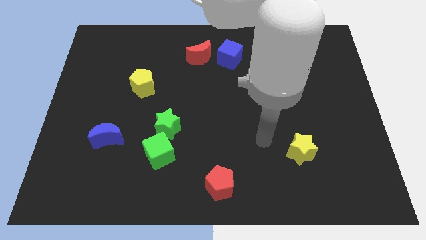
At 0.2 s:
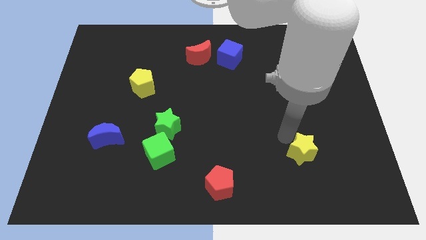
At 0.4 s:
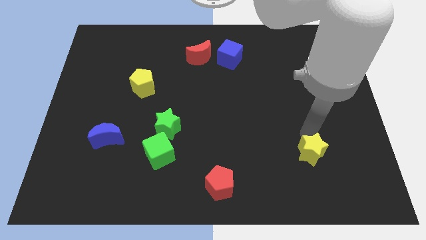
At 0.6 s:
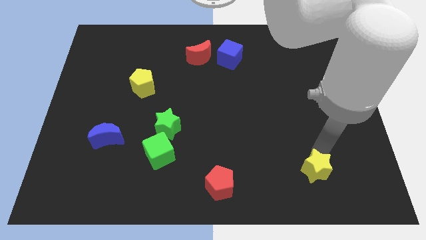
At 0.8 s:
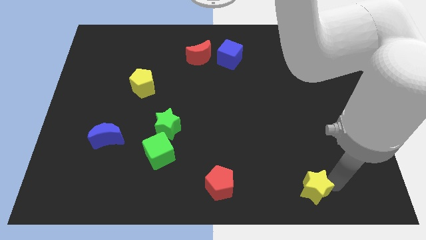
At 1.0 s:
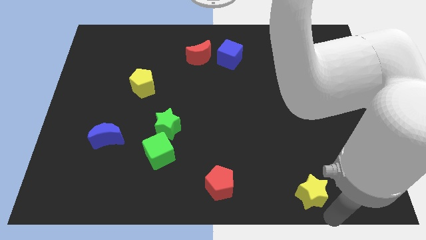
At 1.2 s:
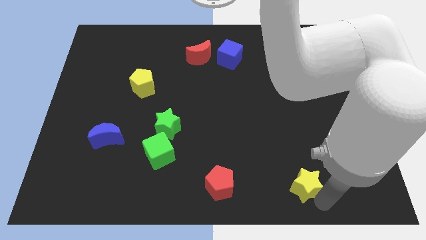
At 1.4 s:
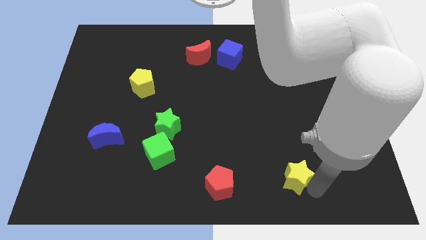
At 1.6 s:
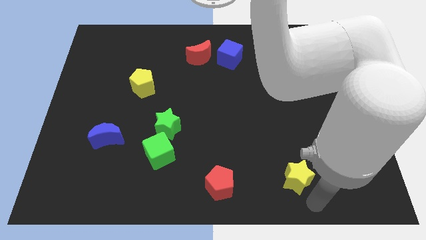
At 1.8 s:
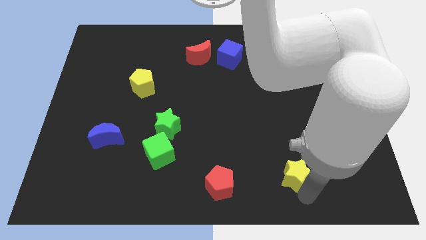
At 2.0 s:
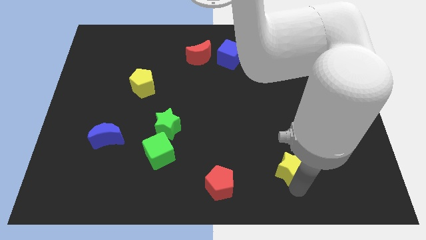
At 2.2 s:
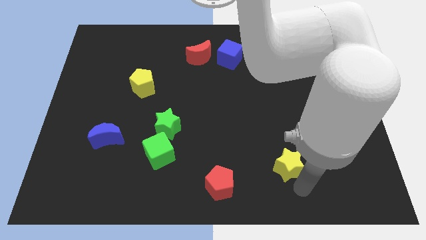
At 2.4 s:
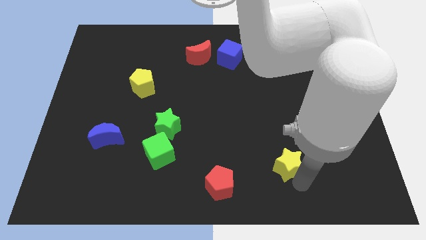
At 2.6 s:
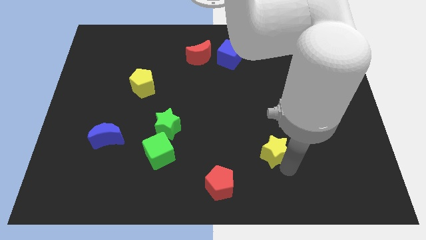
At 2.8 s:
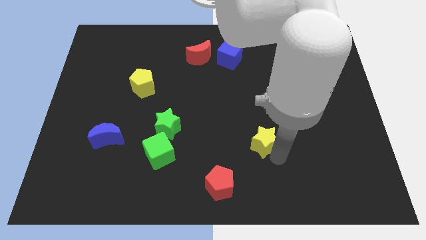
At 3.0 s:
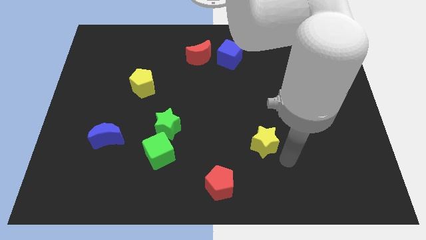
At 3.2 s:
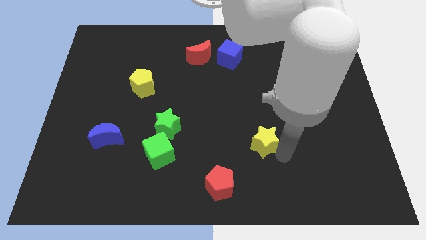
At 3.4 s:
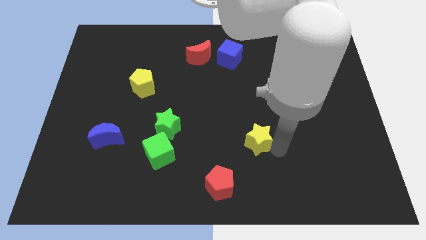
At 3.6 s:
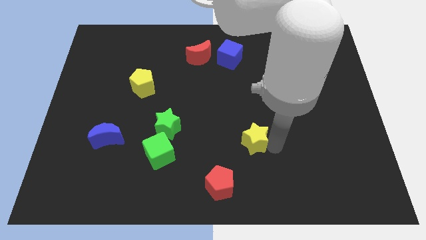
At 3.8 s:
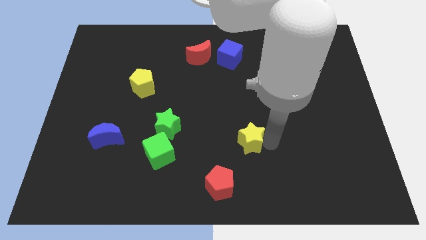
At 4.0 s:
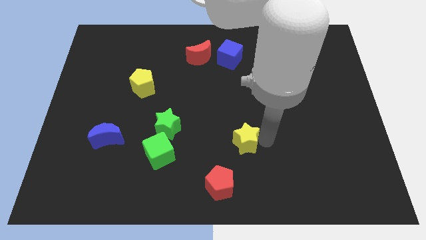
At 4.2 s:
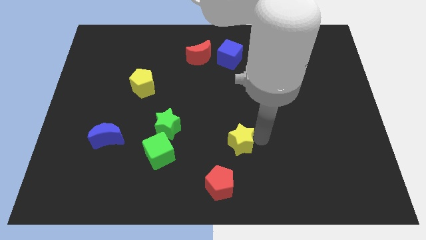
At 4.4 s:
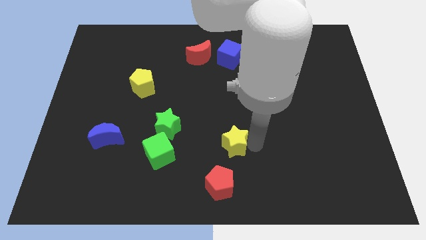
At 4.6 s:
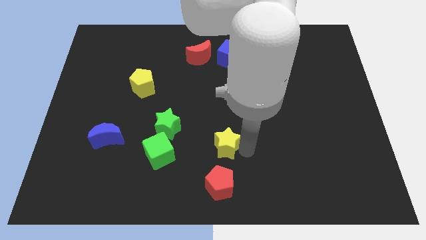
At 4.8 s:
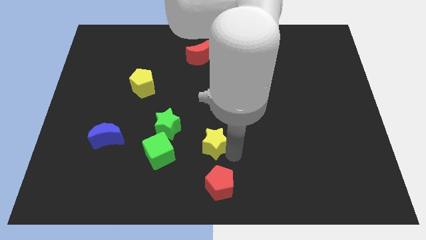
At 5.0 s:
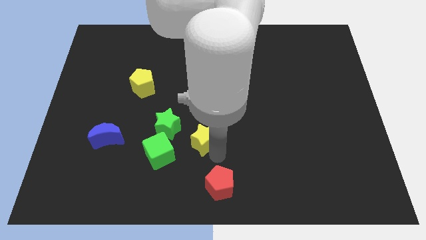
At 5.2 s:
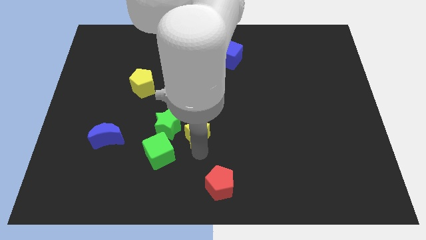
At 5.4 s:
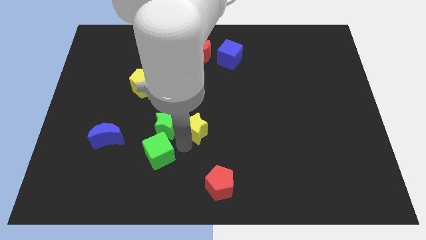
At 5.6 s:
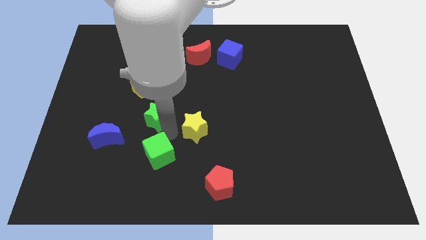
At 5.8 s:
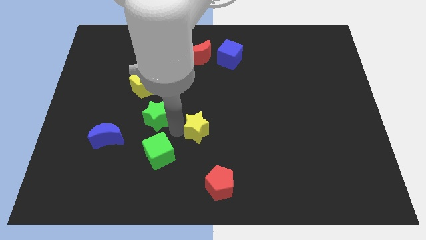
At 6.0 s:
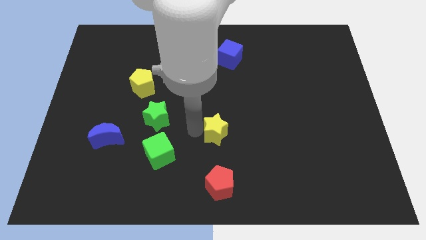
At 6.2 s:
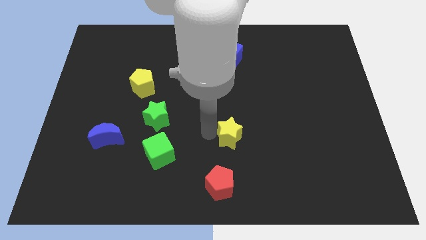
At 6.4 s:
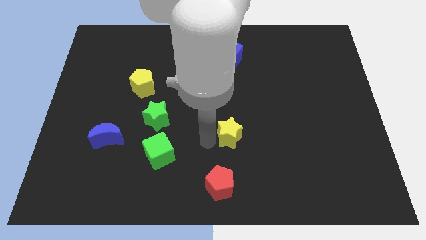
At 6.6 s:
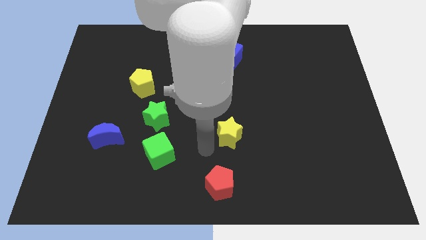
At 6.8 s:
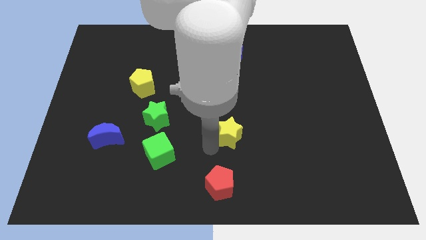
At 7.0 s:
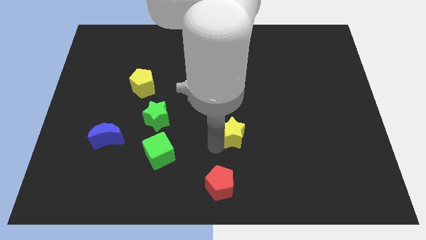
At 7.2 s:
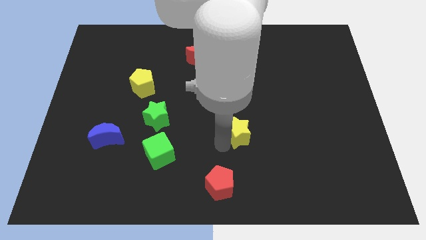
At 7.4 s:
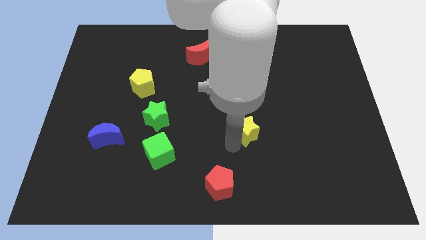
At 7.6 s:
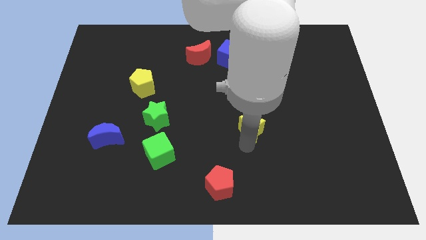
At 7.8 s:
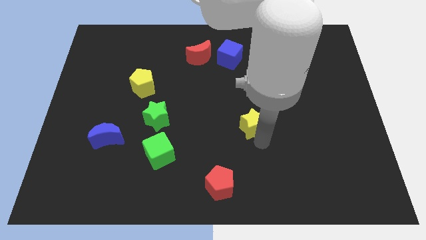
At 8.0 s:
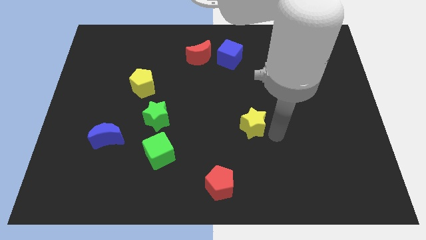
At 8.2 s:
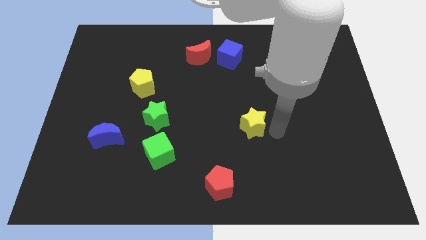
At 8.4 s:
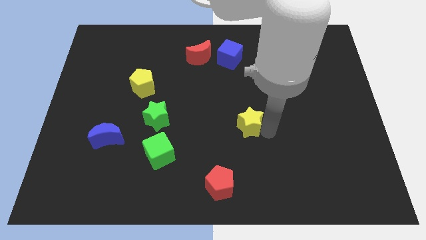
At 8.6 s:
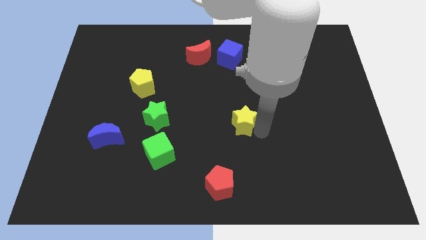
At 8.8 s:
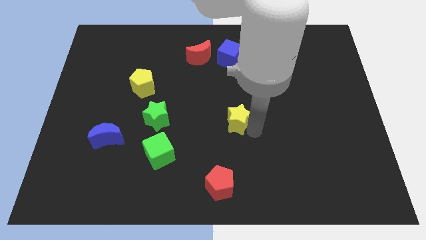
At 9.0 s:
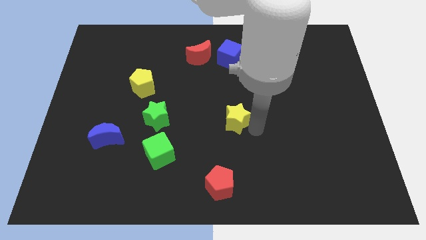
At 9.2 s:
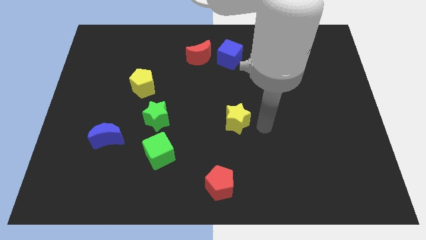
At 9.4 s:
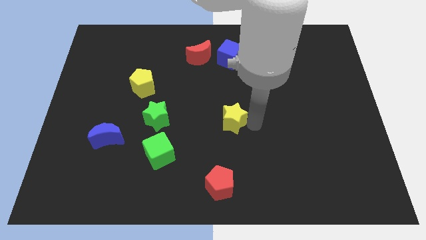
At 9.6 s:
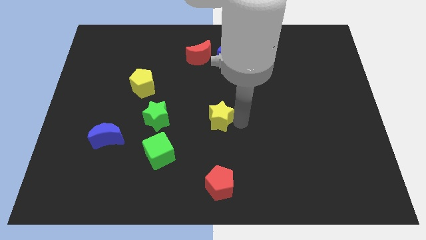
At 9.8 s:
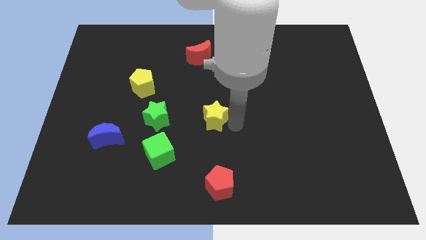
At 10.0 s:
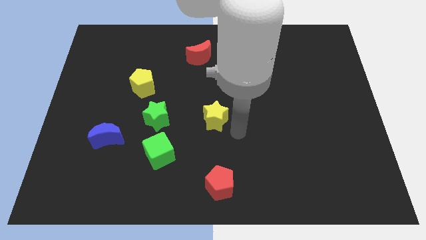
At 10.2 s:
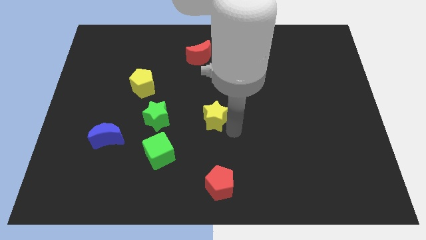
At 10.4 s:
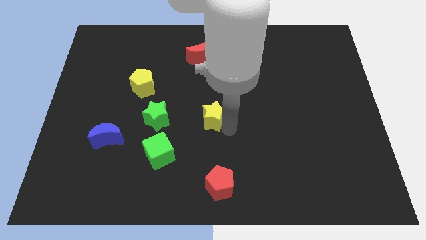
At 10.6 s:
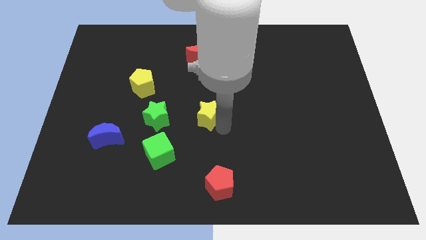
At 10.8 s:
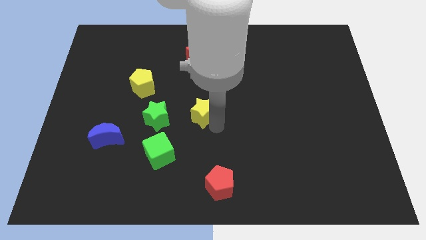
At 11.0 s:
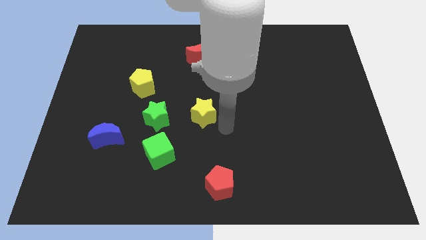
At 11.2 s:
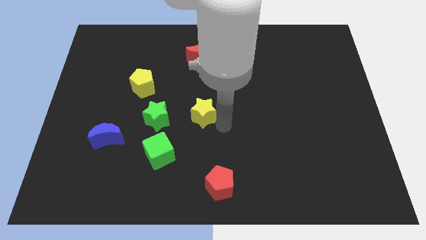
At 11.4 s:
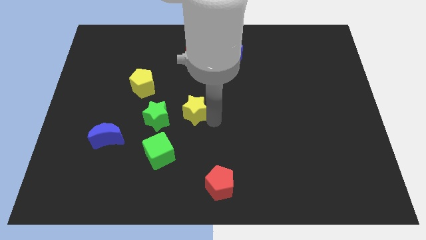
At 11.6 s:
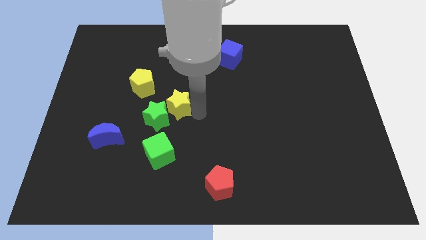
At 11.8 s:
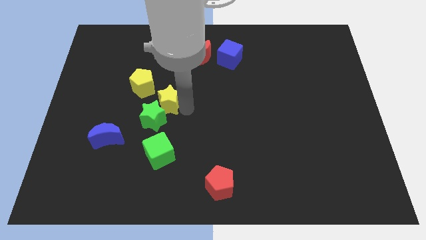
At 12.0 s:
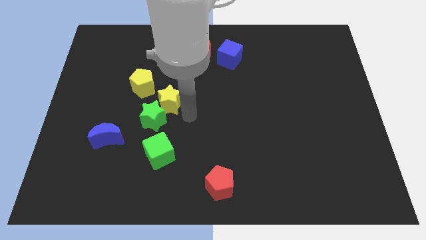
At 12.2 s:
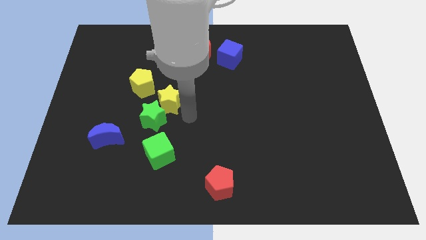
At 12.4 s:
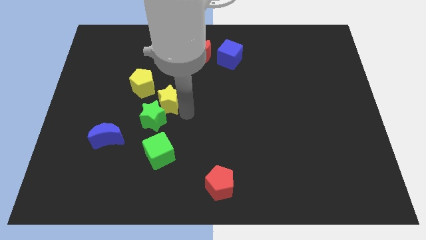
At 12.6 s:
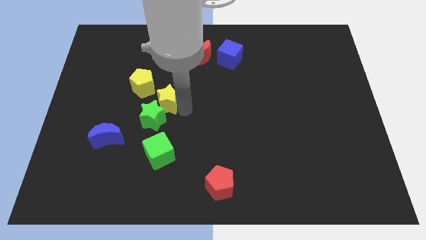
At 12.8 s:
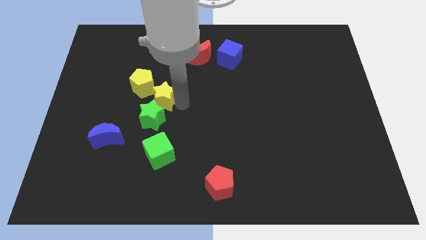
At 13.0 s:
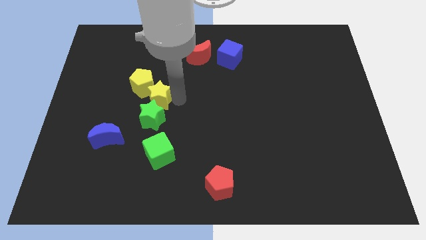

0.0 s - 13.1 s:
slide the yellow star to the yellow pentagon

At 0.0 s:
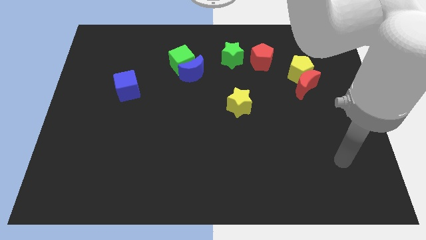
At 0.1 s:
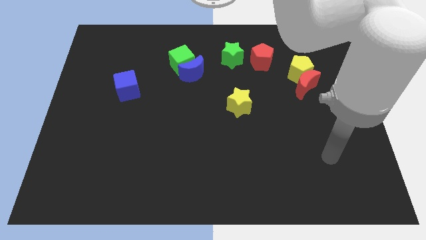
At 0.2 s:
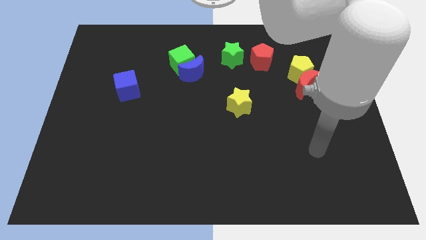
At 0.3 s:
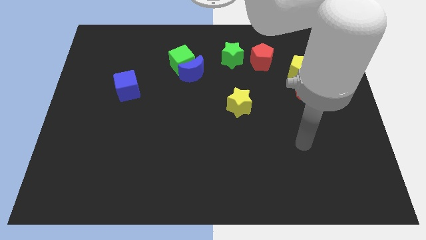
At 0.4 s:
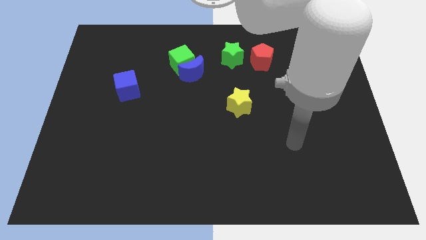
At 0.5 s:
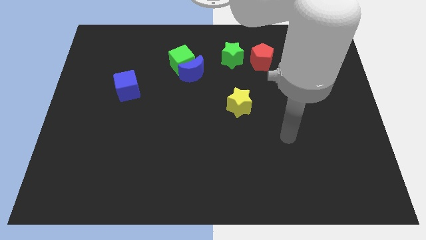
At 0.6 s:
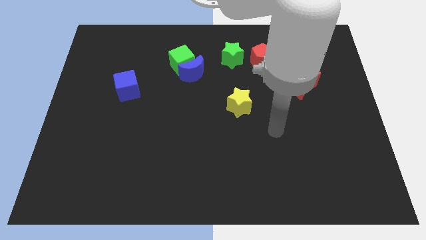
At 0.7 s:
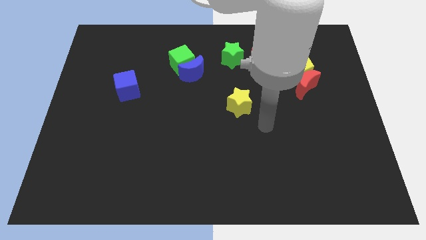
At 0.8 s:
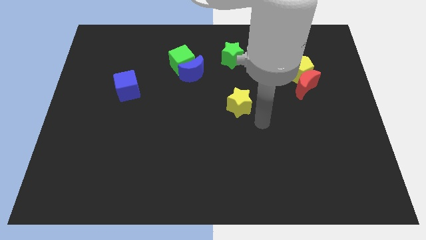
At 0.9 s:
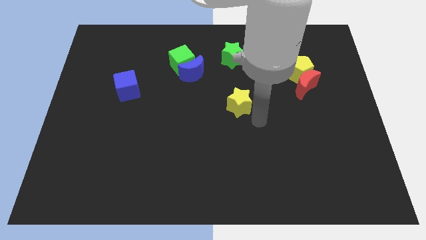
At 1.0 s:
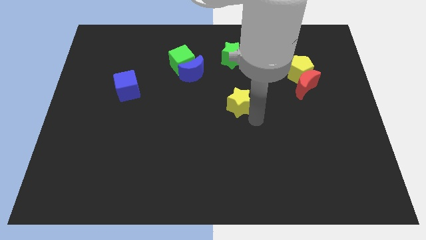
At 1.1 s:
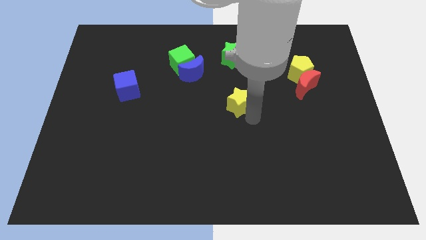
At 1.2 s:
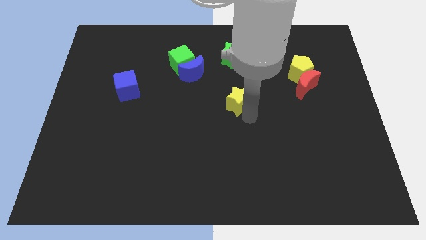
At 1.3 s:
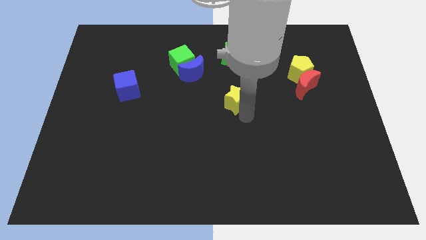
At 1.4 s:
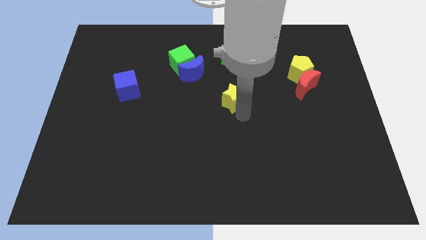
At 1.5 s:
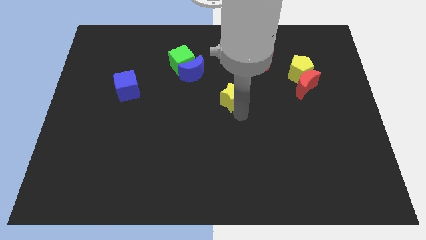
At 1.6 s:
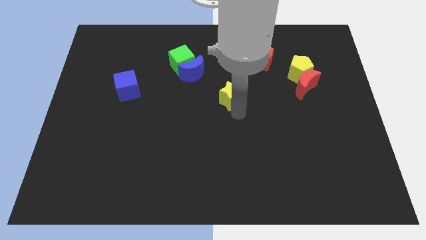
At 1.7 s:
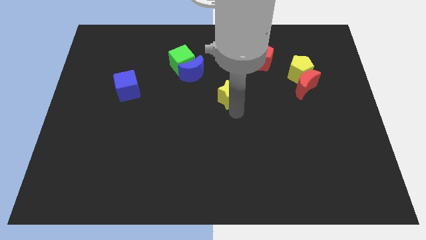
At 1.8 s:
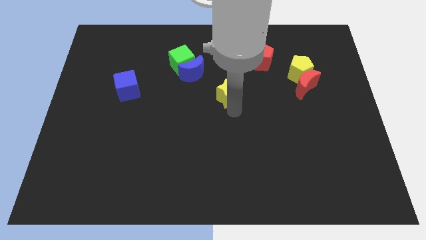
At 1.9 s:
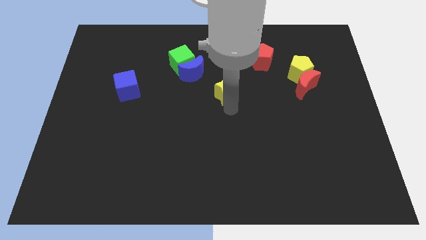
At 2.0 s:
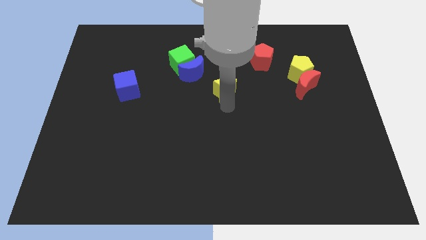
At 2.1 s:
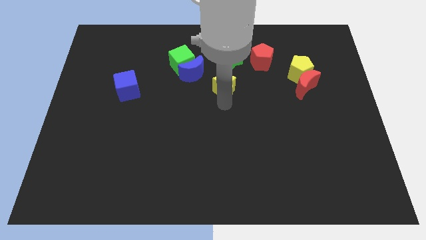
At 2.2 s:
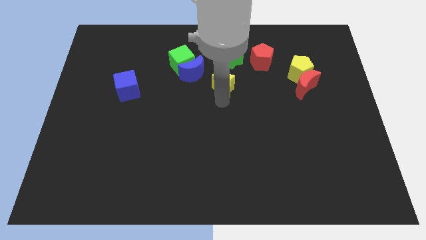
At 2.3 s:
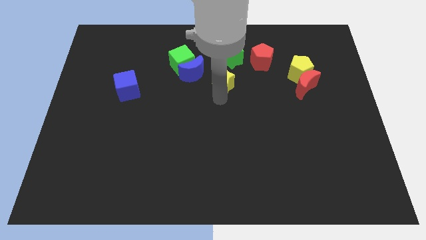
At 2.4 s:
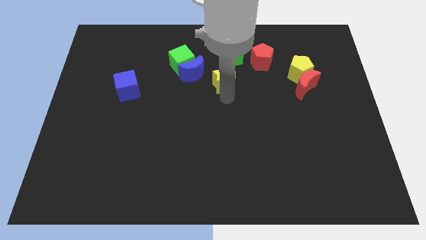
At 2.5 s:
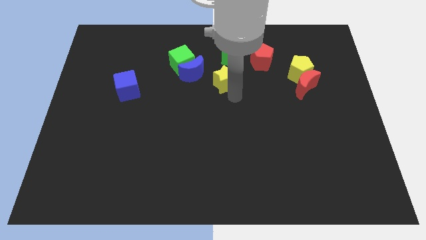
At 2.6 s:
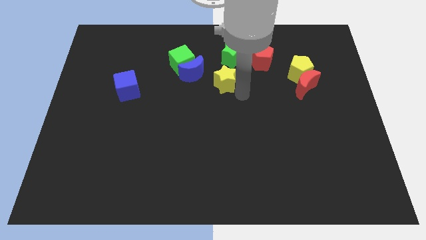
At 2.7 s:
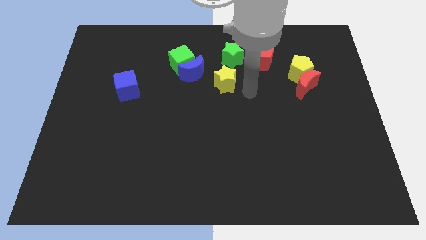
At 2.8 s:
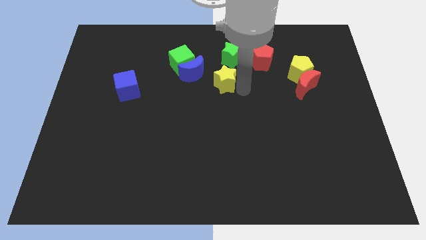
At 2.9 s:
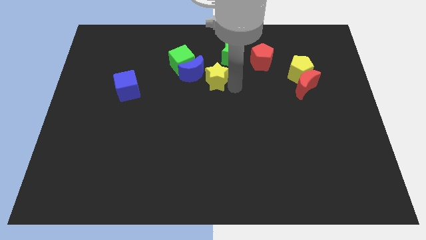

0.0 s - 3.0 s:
push the yellow star towards the blue moon
